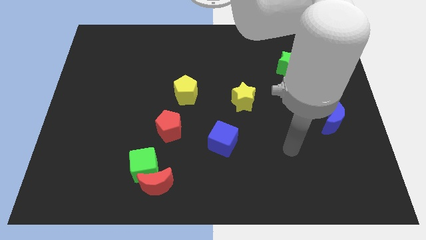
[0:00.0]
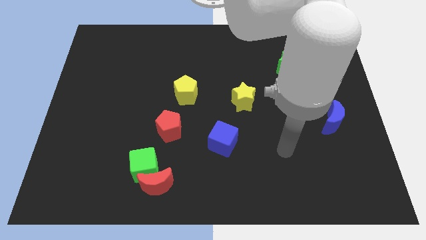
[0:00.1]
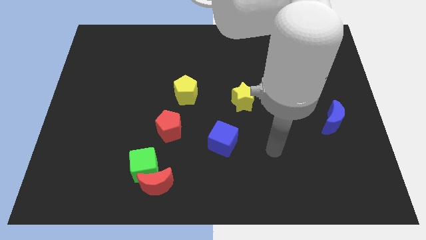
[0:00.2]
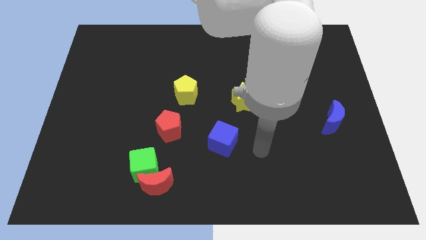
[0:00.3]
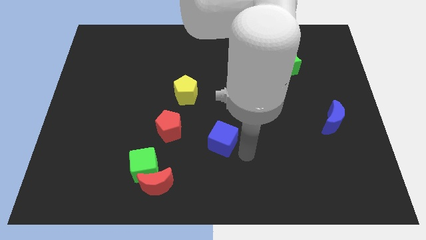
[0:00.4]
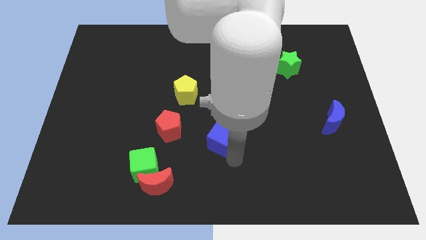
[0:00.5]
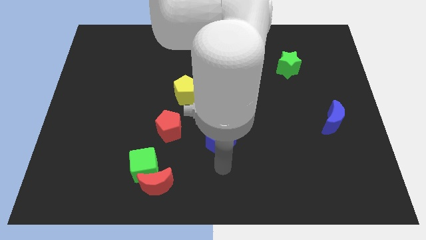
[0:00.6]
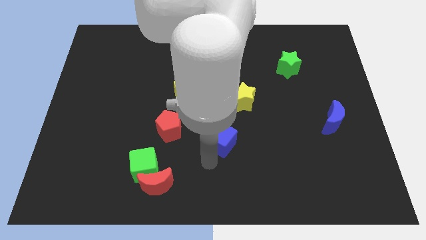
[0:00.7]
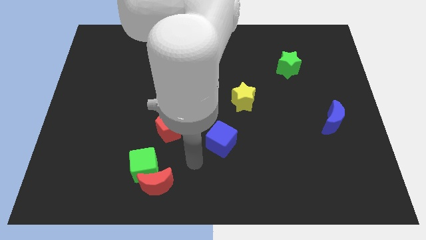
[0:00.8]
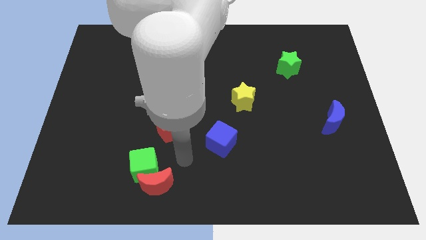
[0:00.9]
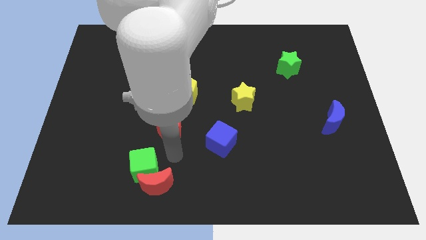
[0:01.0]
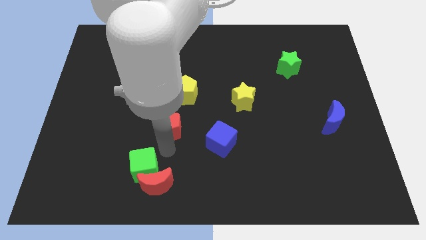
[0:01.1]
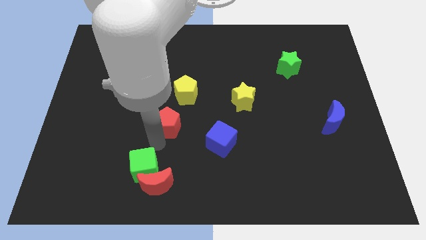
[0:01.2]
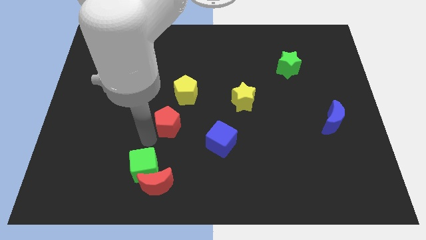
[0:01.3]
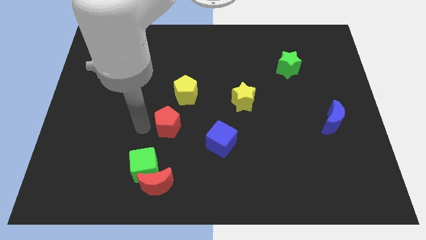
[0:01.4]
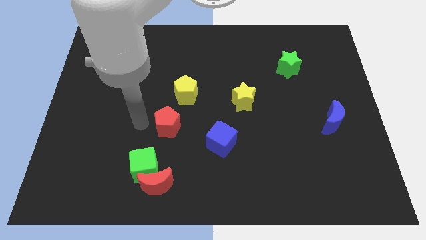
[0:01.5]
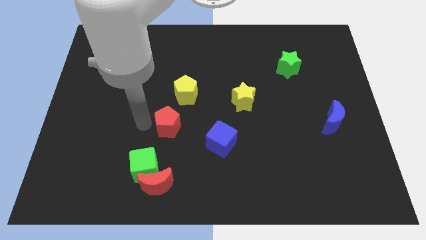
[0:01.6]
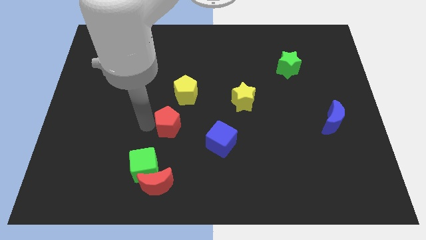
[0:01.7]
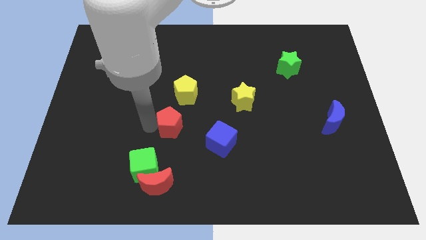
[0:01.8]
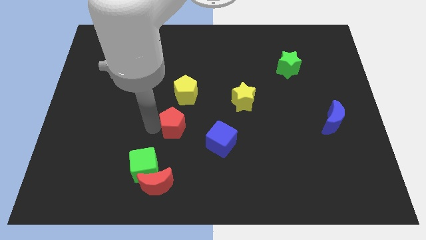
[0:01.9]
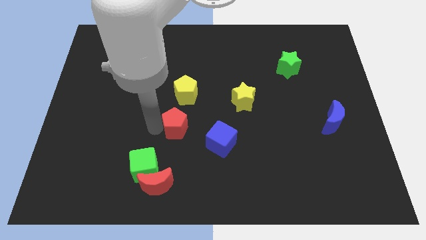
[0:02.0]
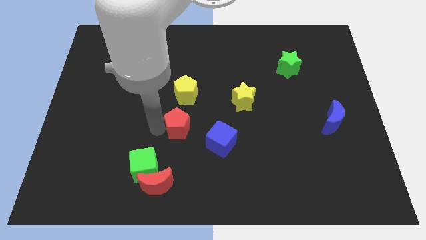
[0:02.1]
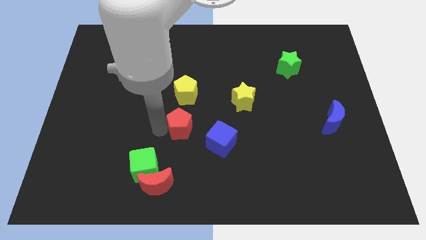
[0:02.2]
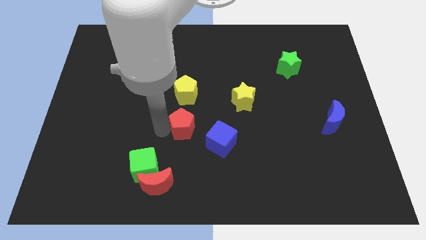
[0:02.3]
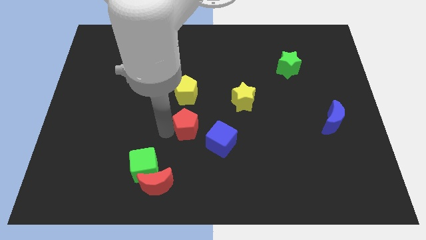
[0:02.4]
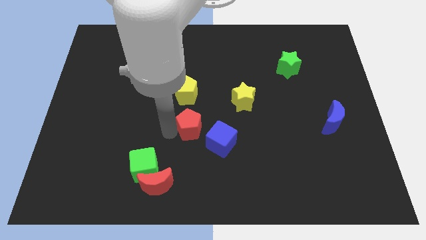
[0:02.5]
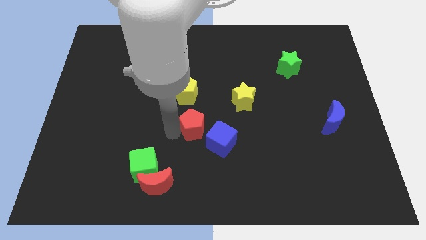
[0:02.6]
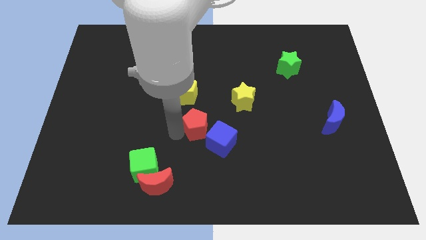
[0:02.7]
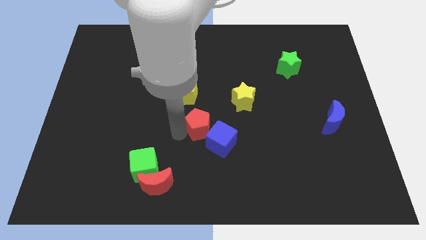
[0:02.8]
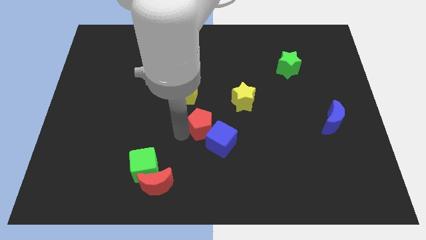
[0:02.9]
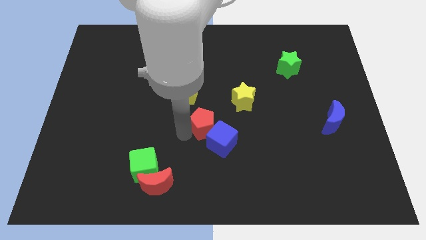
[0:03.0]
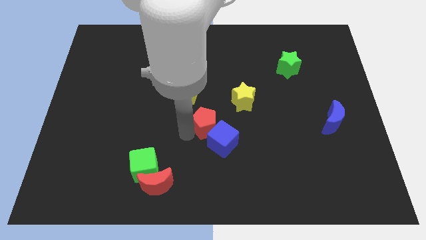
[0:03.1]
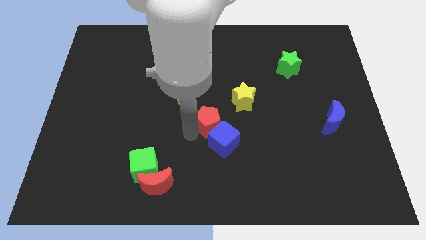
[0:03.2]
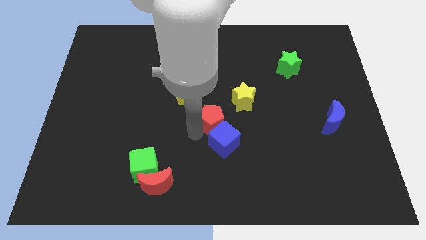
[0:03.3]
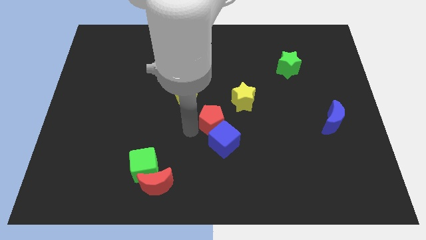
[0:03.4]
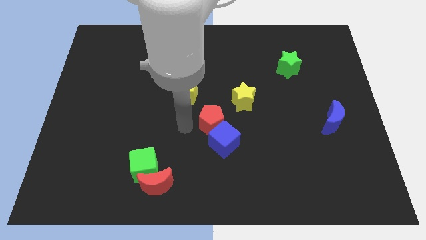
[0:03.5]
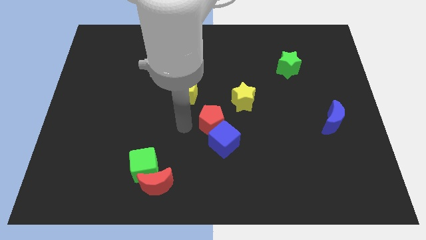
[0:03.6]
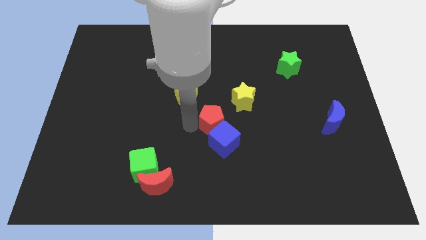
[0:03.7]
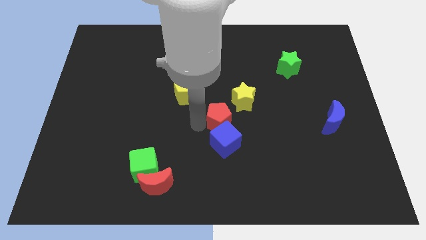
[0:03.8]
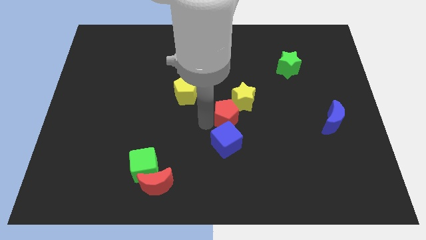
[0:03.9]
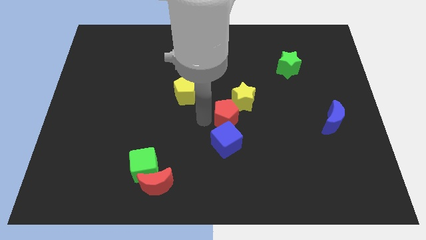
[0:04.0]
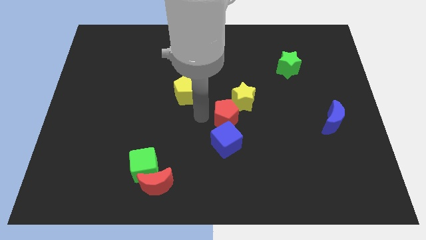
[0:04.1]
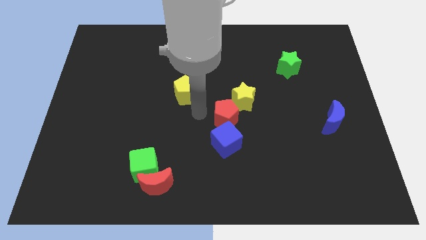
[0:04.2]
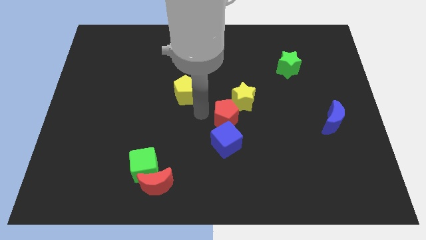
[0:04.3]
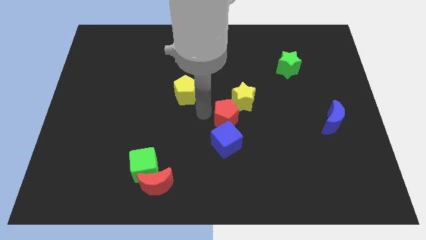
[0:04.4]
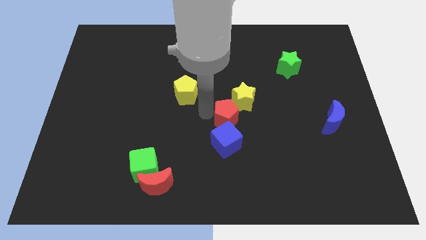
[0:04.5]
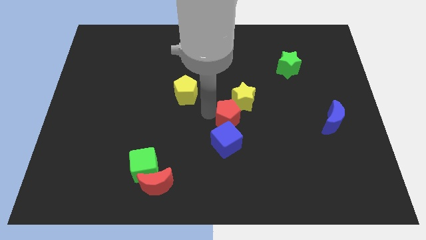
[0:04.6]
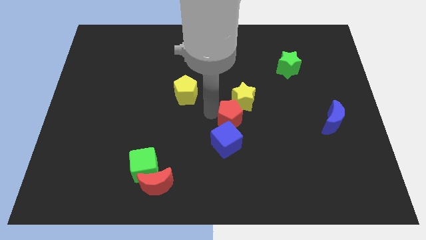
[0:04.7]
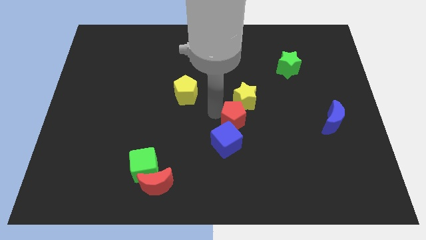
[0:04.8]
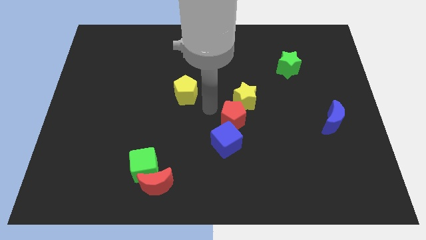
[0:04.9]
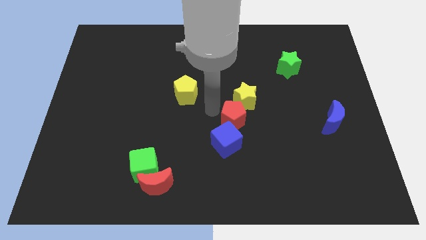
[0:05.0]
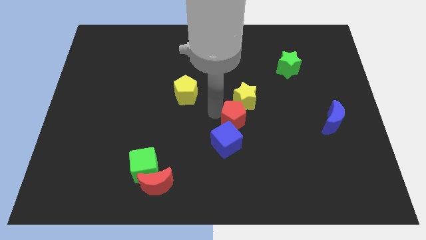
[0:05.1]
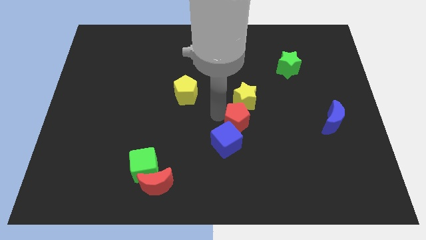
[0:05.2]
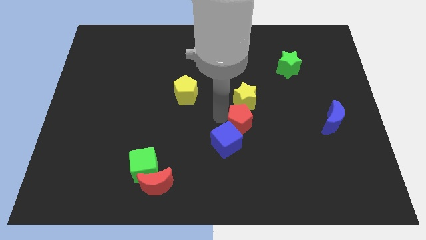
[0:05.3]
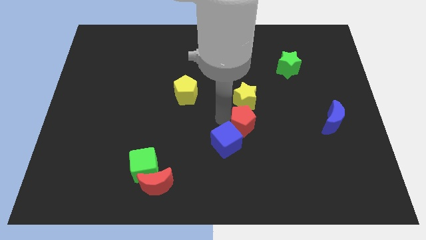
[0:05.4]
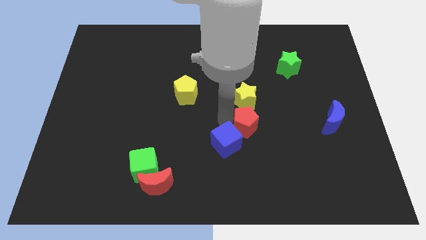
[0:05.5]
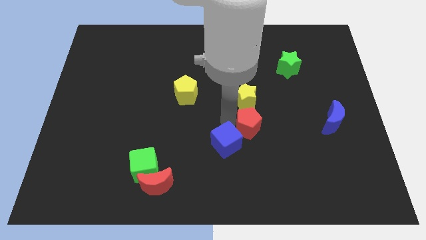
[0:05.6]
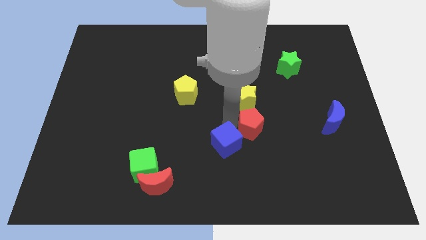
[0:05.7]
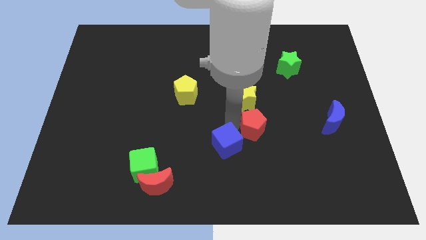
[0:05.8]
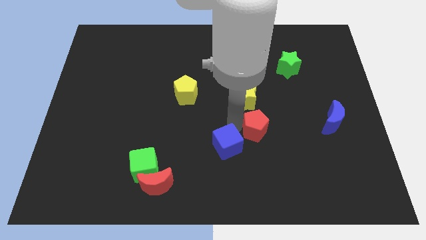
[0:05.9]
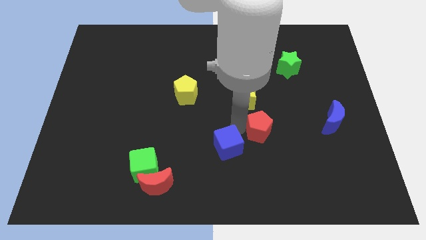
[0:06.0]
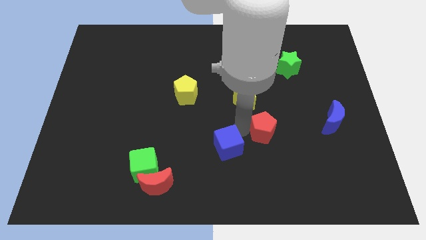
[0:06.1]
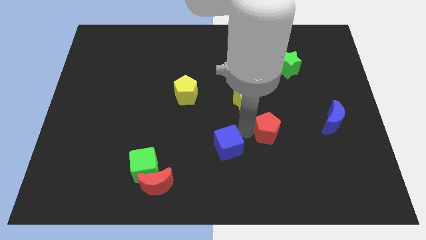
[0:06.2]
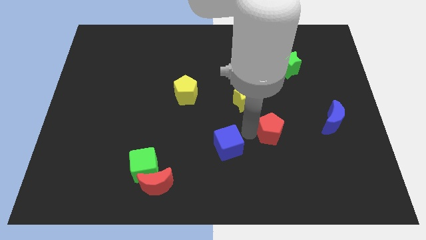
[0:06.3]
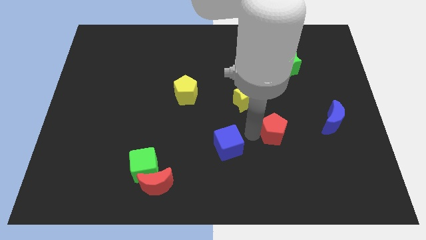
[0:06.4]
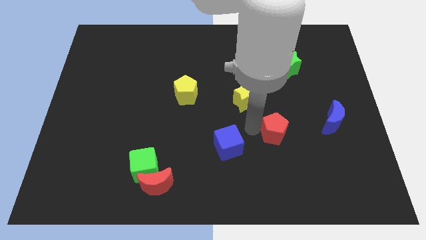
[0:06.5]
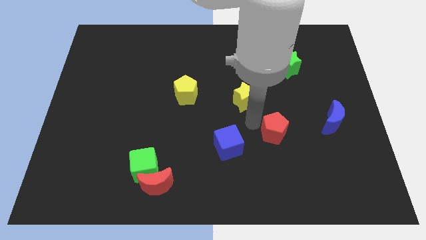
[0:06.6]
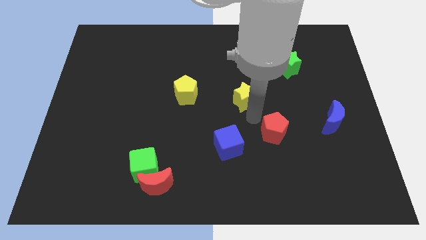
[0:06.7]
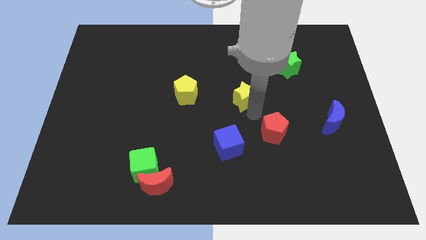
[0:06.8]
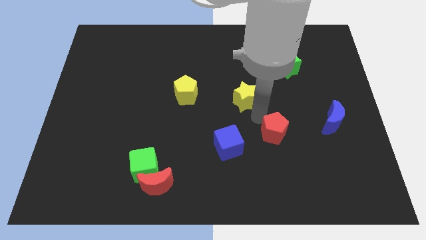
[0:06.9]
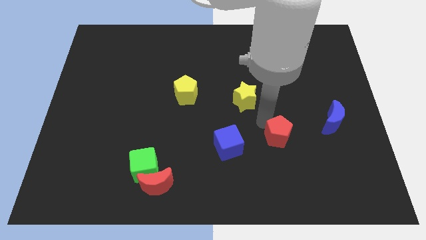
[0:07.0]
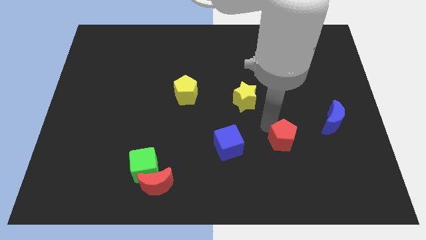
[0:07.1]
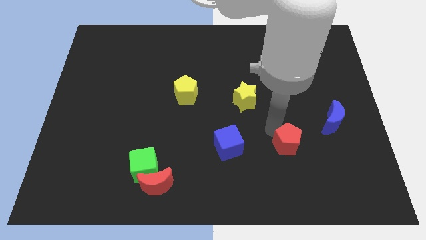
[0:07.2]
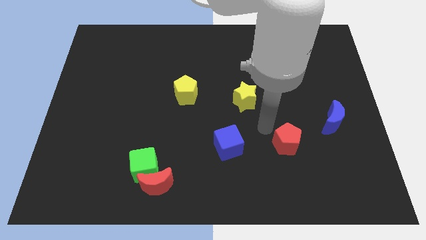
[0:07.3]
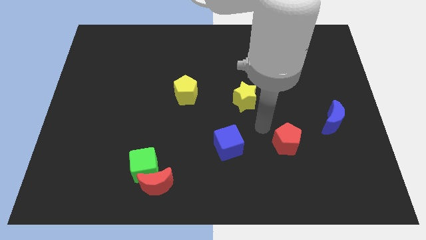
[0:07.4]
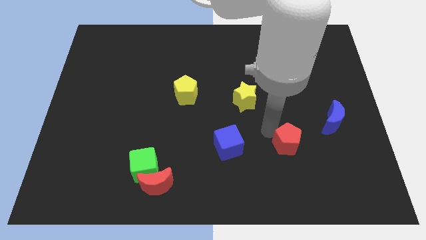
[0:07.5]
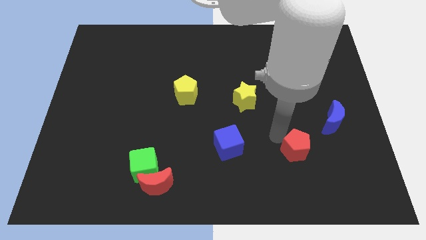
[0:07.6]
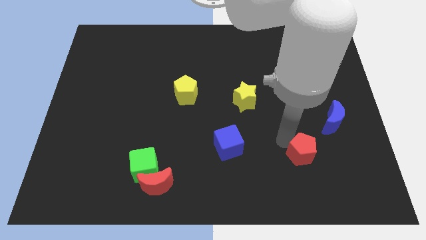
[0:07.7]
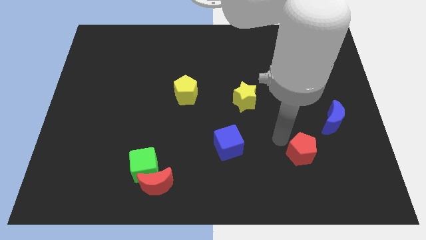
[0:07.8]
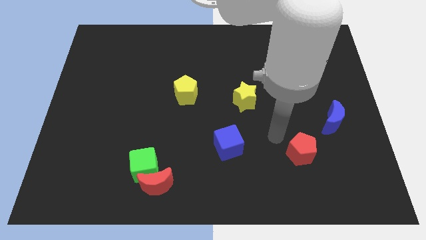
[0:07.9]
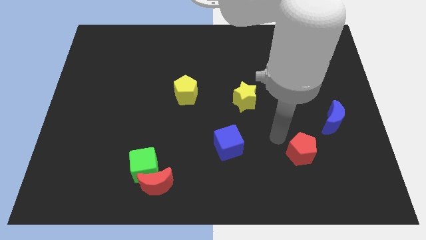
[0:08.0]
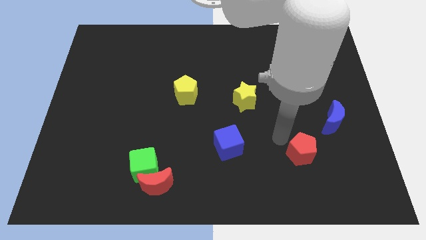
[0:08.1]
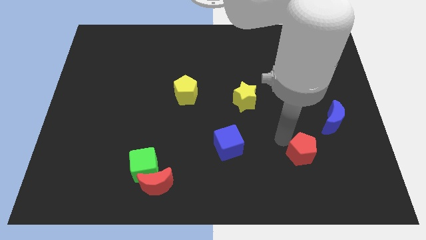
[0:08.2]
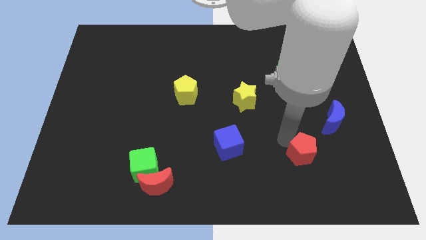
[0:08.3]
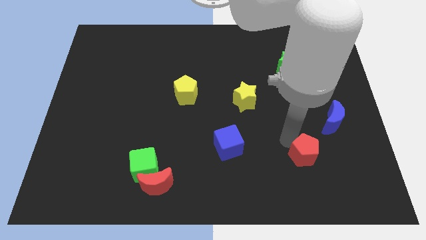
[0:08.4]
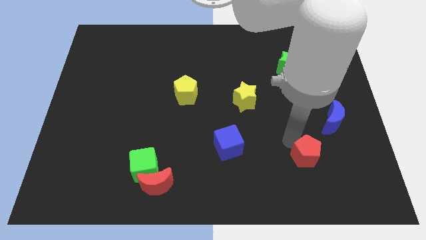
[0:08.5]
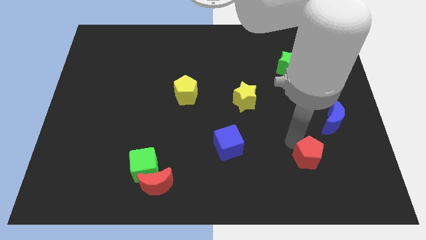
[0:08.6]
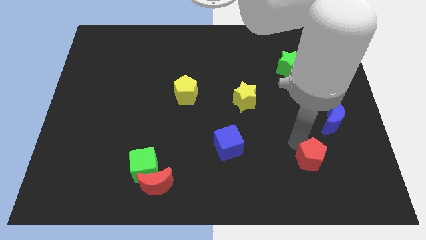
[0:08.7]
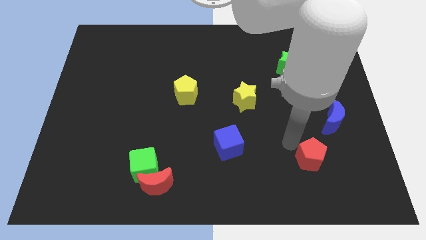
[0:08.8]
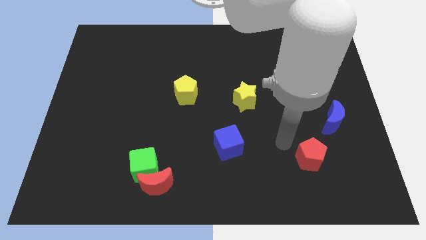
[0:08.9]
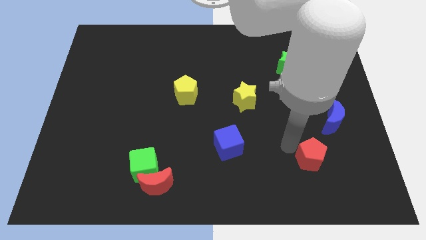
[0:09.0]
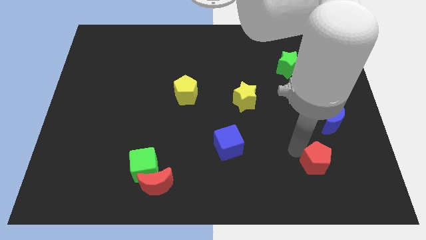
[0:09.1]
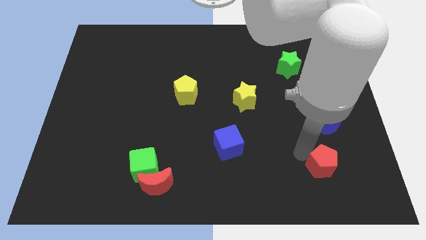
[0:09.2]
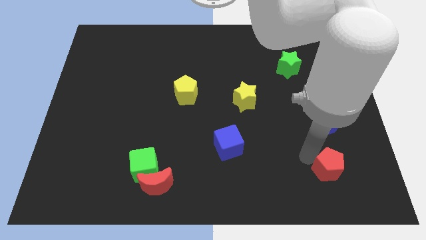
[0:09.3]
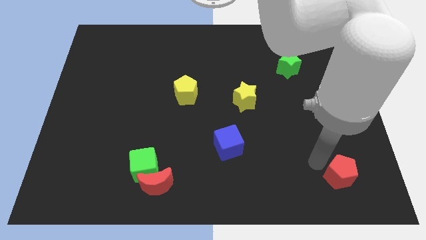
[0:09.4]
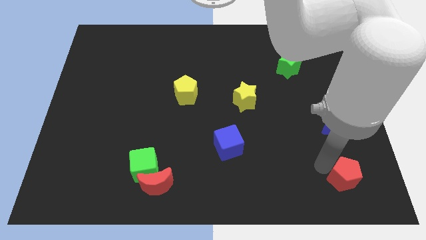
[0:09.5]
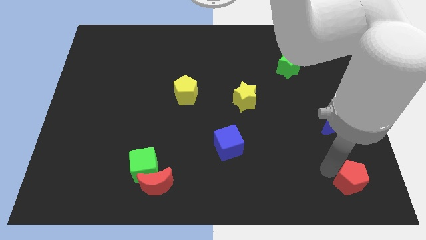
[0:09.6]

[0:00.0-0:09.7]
push the red pentagon to the bottom right
